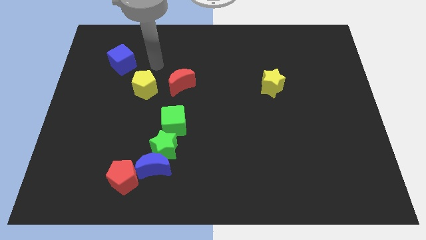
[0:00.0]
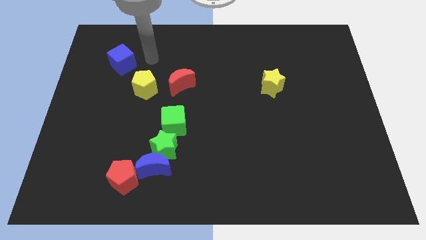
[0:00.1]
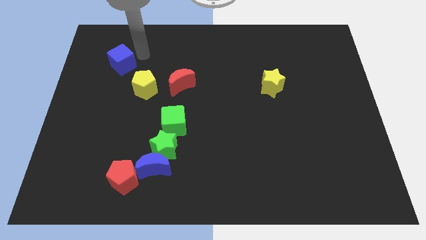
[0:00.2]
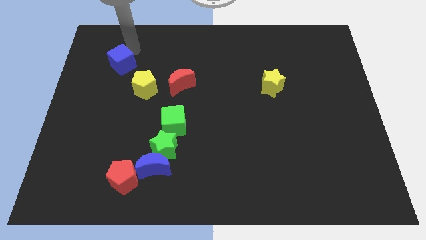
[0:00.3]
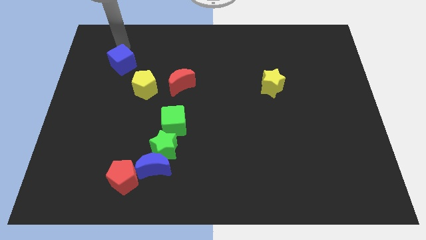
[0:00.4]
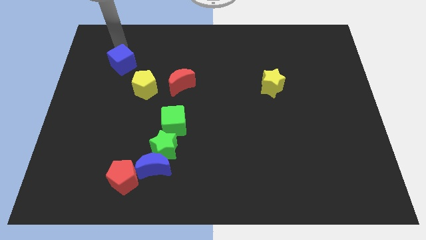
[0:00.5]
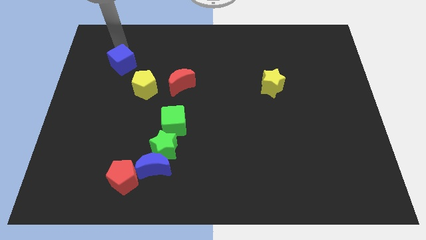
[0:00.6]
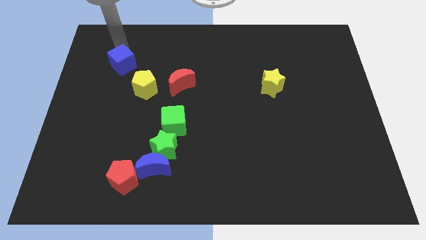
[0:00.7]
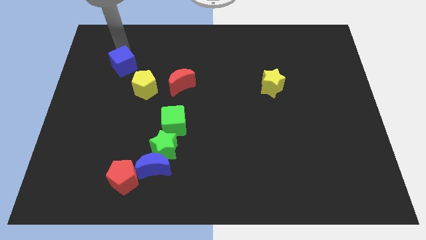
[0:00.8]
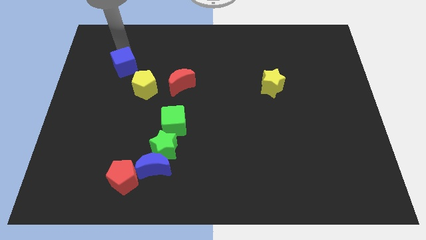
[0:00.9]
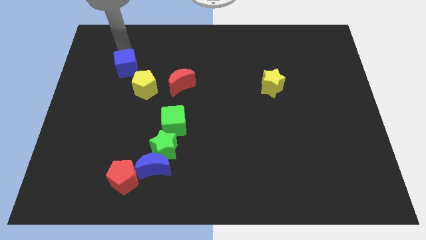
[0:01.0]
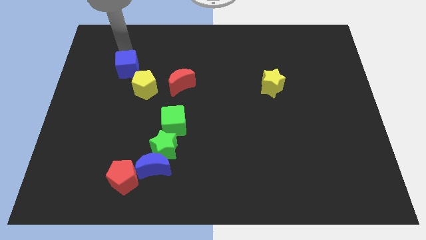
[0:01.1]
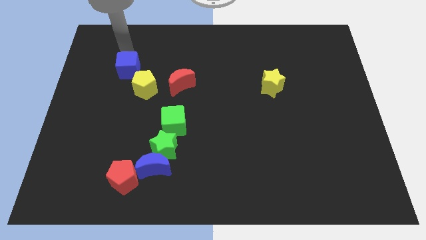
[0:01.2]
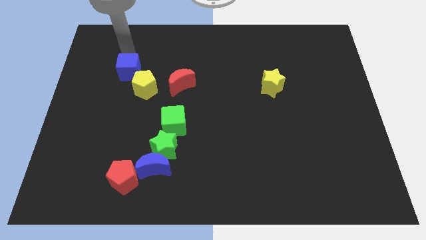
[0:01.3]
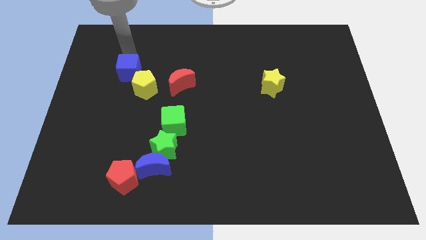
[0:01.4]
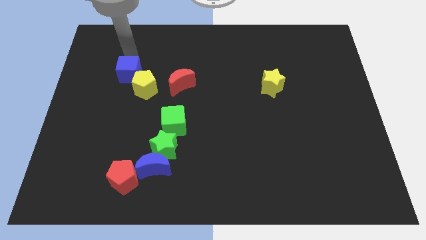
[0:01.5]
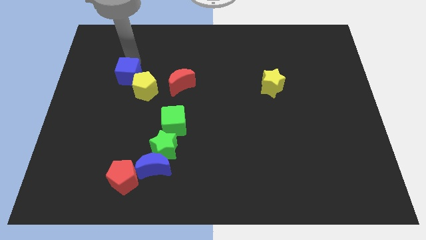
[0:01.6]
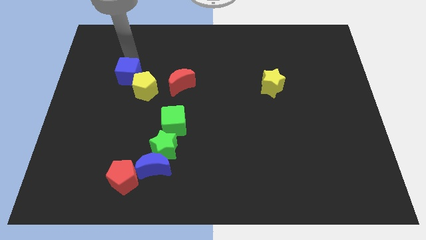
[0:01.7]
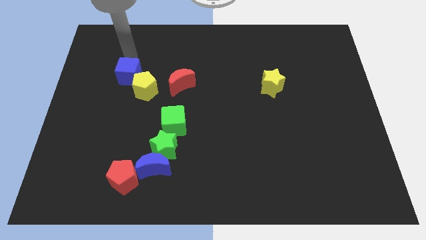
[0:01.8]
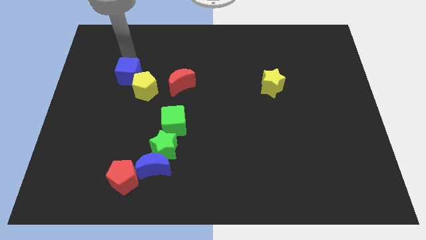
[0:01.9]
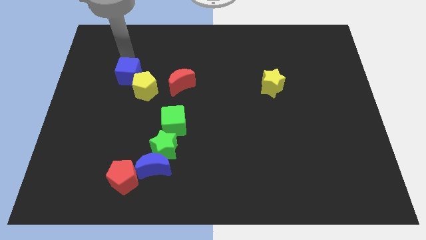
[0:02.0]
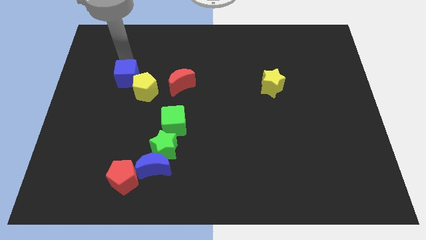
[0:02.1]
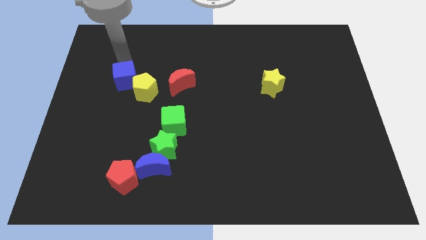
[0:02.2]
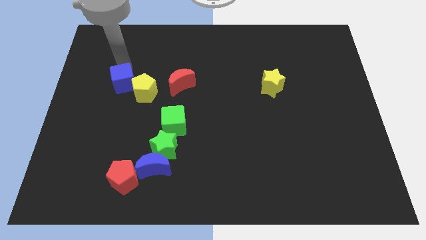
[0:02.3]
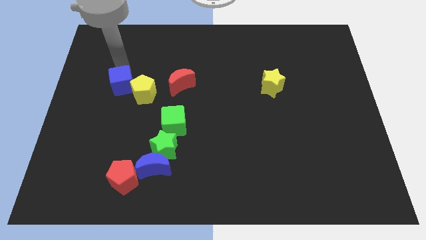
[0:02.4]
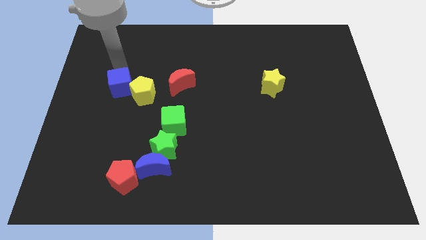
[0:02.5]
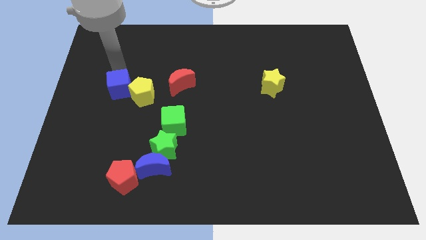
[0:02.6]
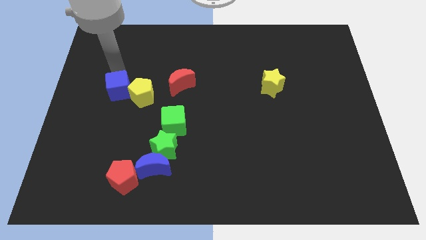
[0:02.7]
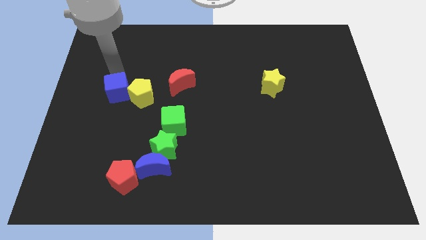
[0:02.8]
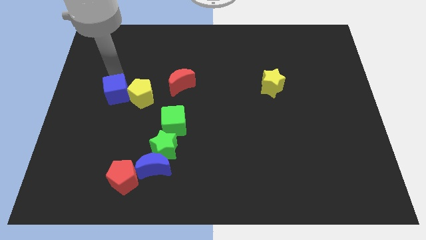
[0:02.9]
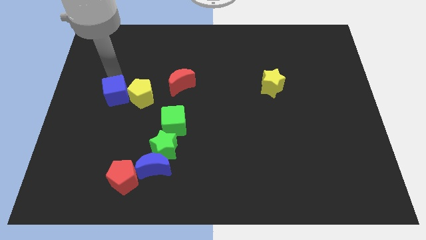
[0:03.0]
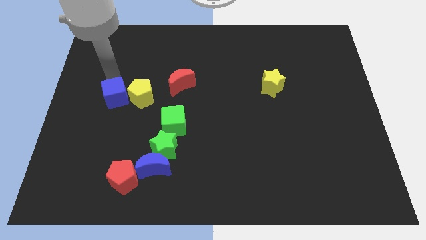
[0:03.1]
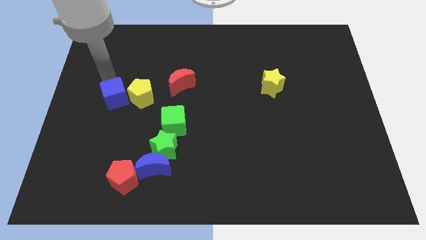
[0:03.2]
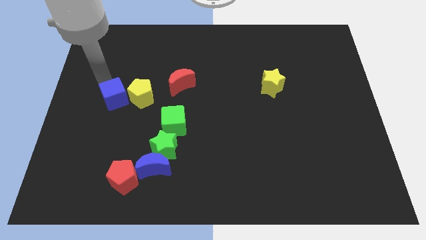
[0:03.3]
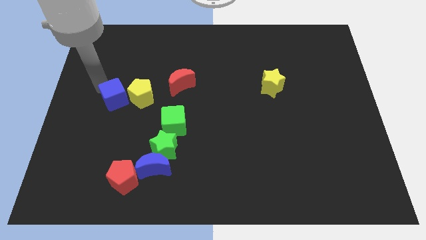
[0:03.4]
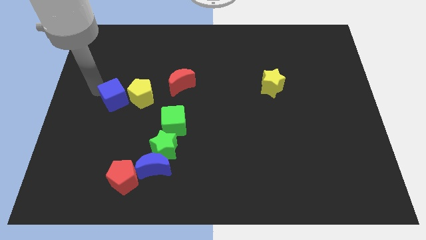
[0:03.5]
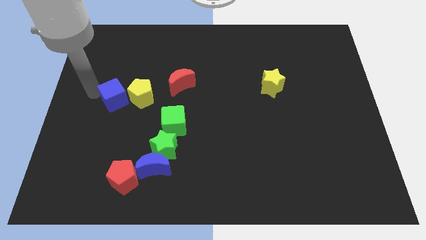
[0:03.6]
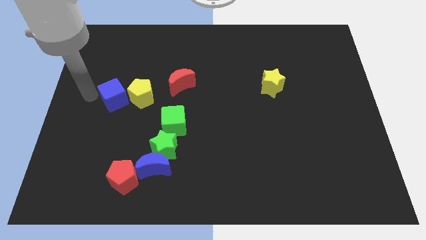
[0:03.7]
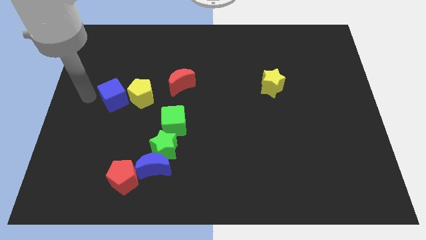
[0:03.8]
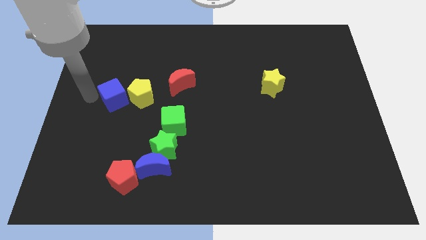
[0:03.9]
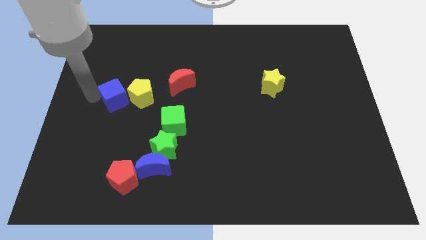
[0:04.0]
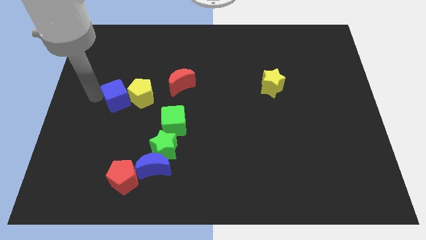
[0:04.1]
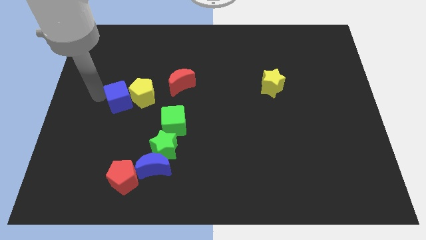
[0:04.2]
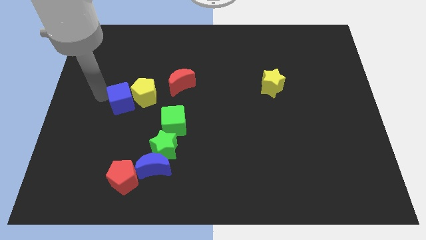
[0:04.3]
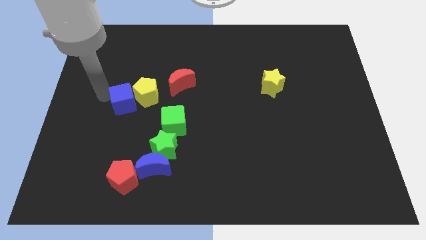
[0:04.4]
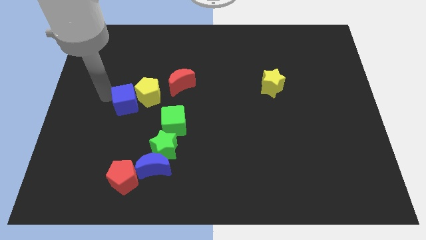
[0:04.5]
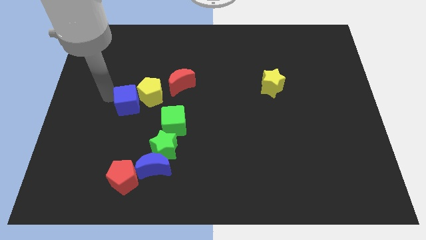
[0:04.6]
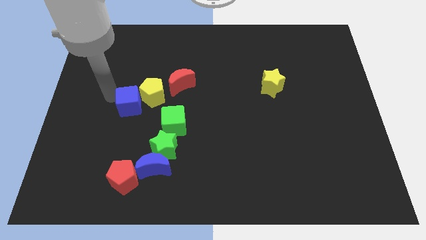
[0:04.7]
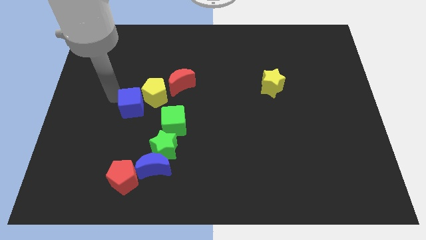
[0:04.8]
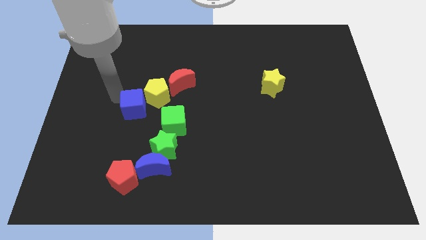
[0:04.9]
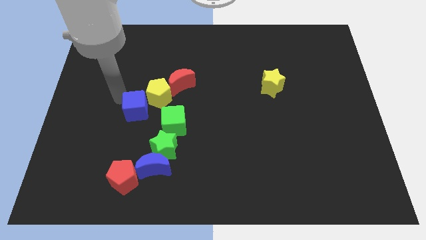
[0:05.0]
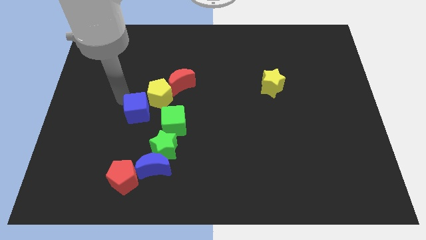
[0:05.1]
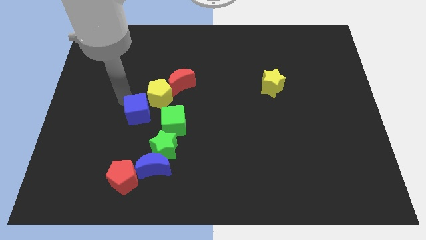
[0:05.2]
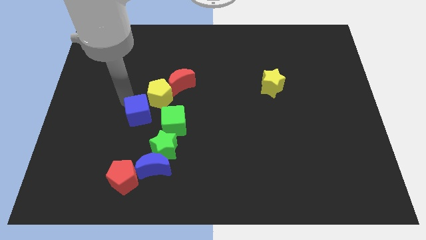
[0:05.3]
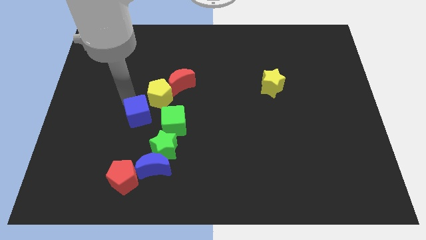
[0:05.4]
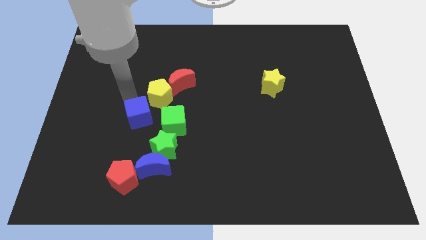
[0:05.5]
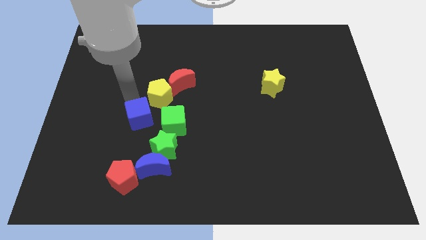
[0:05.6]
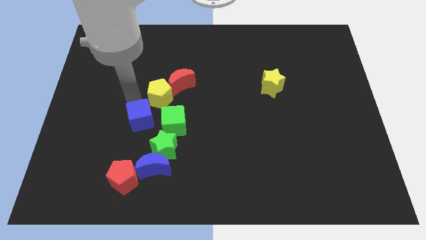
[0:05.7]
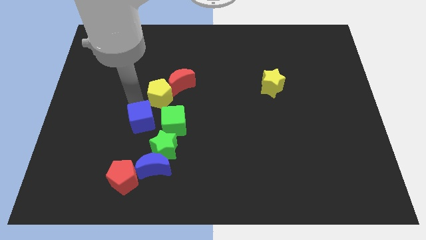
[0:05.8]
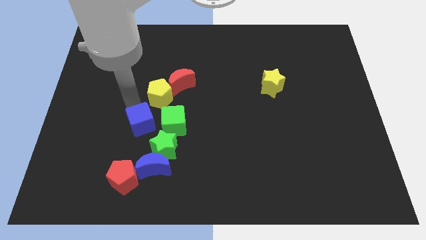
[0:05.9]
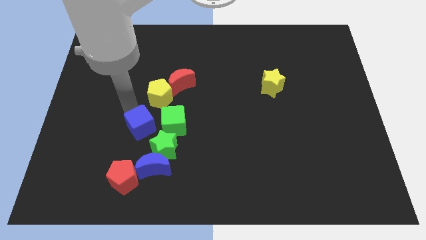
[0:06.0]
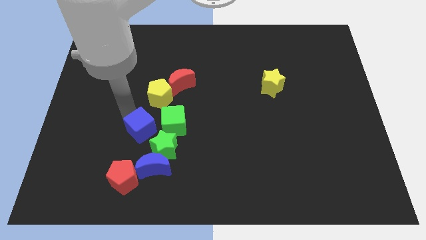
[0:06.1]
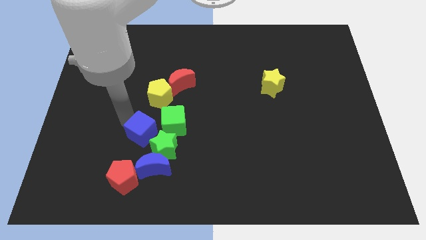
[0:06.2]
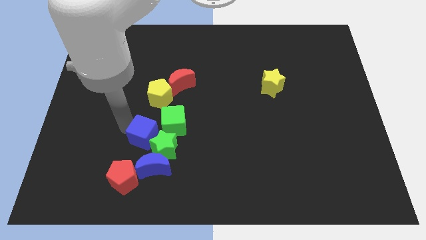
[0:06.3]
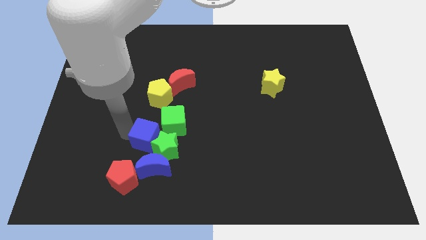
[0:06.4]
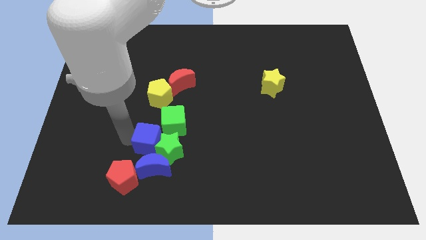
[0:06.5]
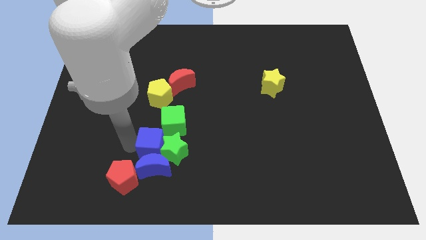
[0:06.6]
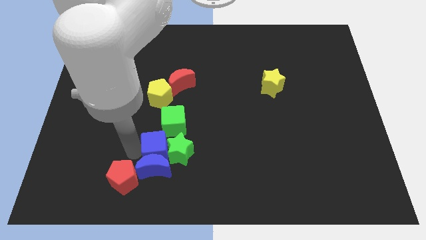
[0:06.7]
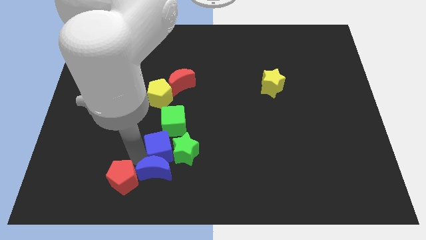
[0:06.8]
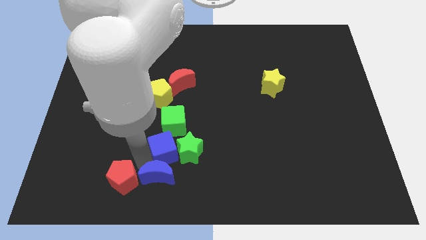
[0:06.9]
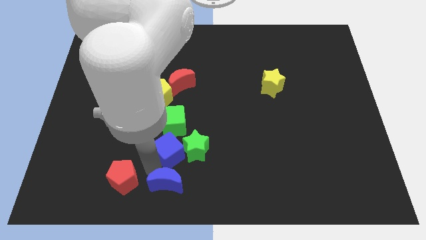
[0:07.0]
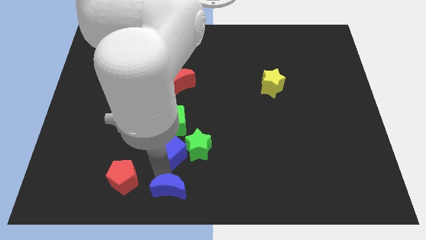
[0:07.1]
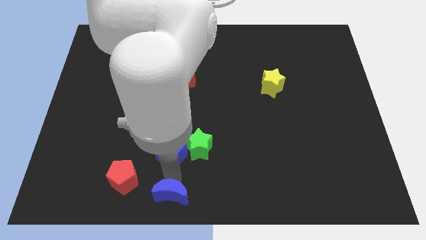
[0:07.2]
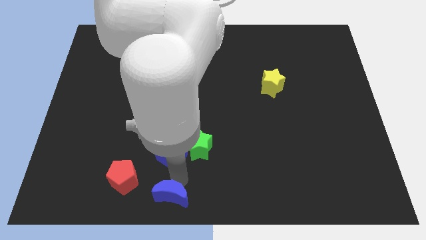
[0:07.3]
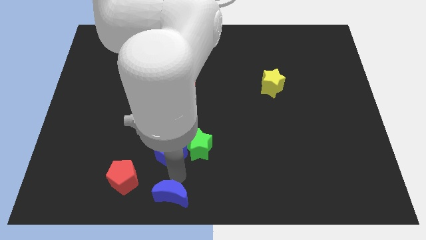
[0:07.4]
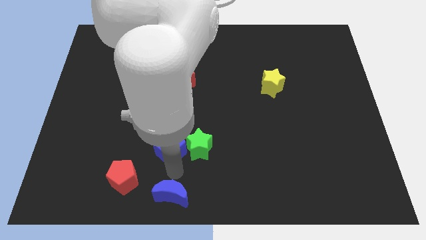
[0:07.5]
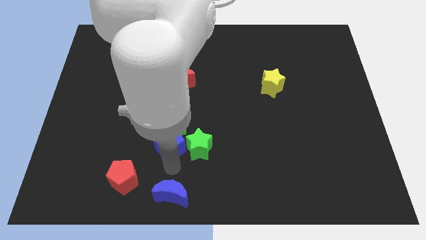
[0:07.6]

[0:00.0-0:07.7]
push the blue cube towards the green cube

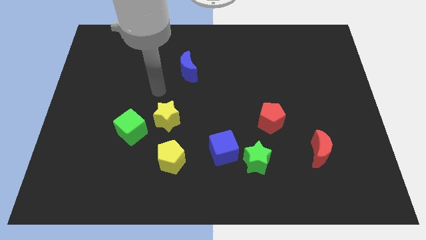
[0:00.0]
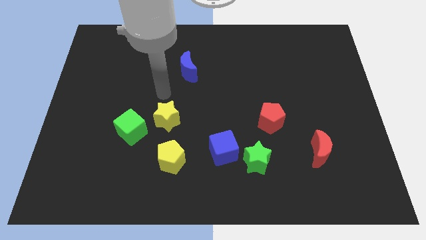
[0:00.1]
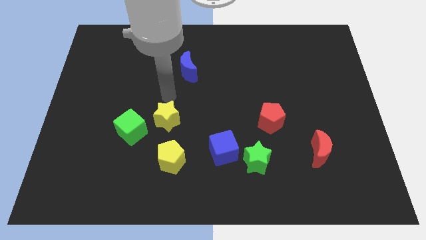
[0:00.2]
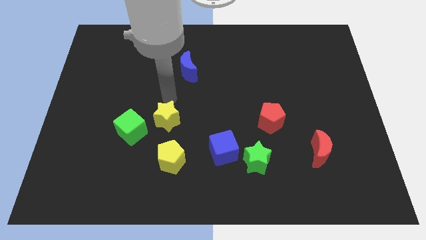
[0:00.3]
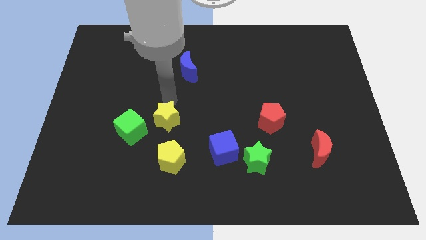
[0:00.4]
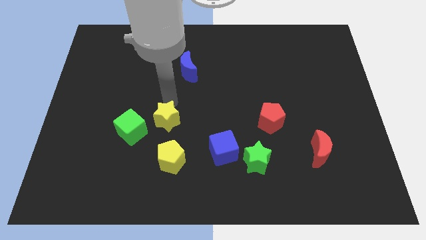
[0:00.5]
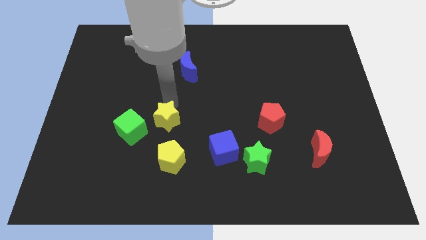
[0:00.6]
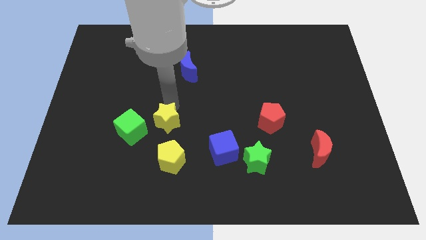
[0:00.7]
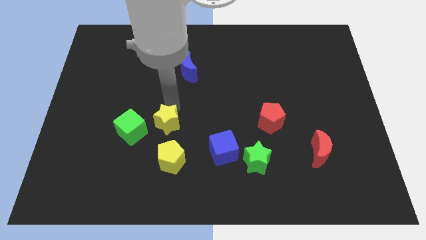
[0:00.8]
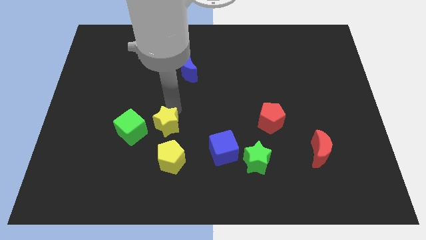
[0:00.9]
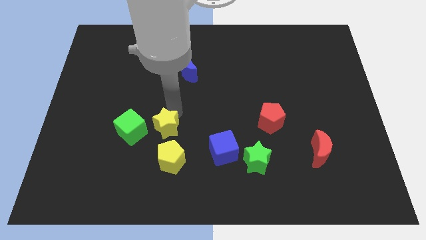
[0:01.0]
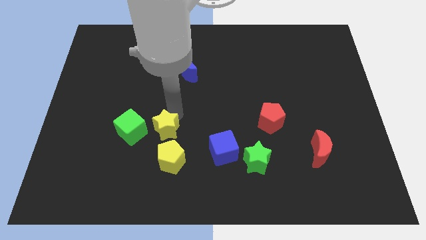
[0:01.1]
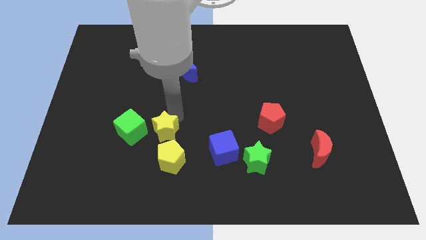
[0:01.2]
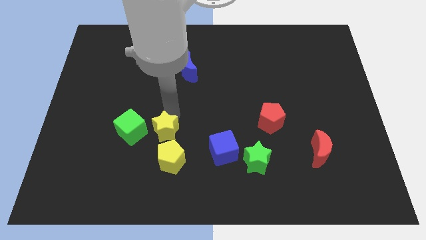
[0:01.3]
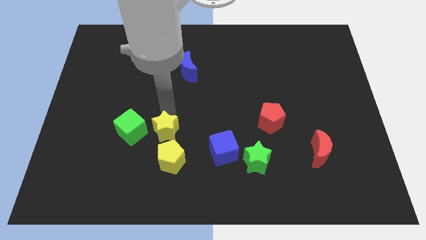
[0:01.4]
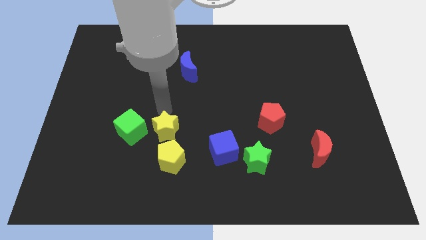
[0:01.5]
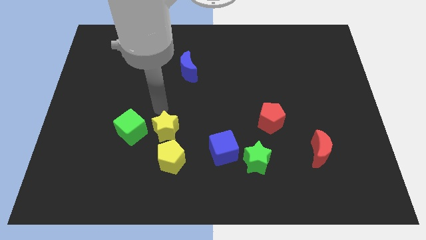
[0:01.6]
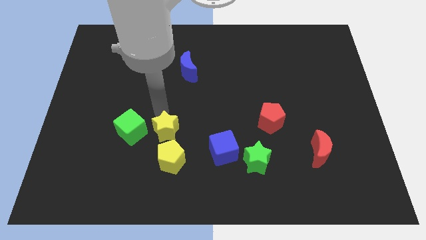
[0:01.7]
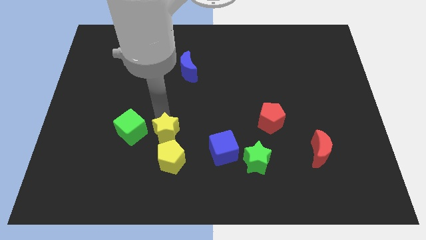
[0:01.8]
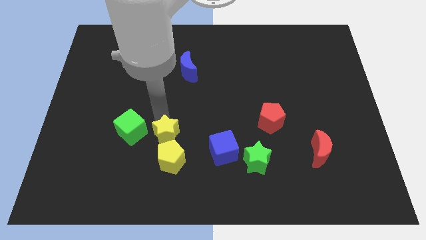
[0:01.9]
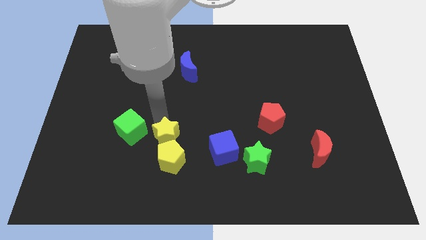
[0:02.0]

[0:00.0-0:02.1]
push the yellow star close to the yellow pentagon
